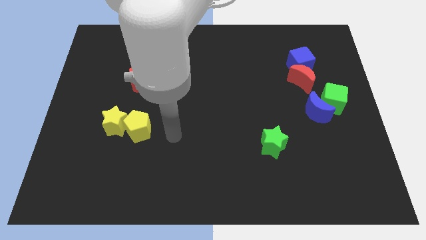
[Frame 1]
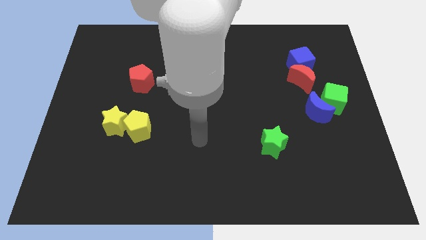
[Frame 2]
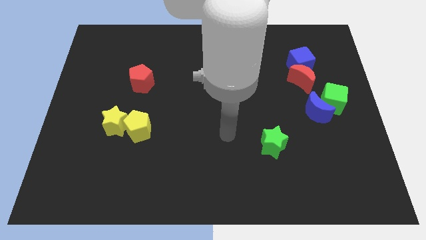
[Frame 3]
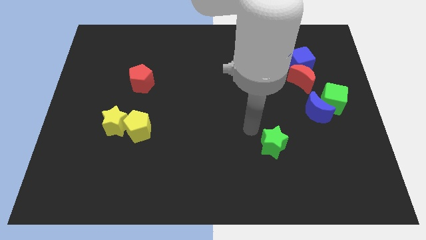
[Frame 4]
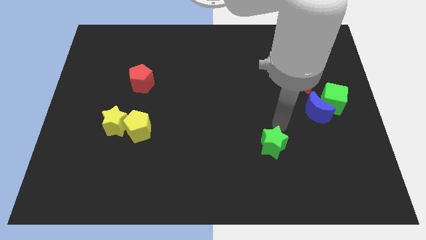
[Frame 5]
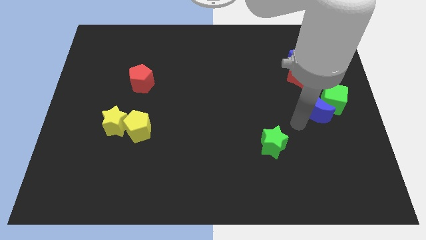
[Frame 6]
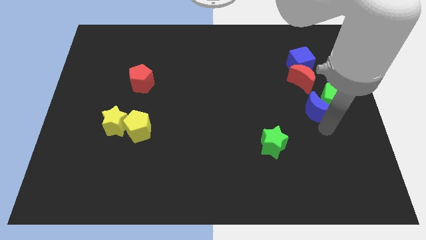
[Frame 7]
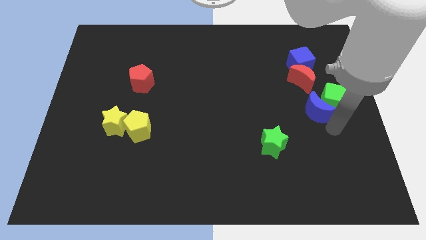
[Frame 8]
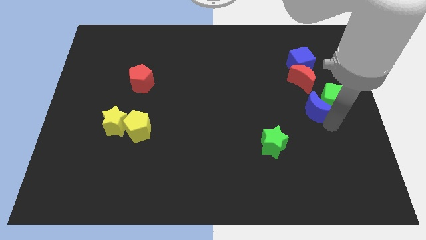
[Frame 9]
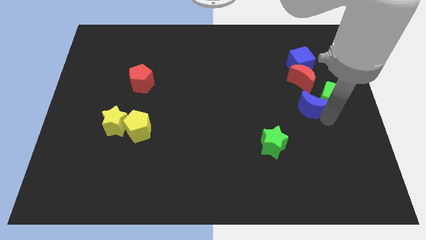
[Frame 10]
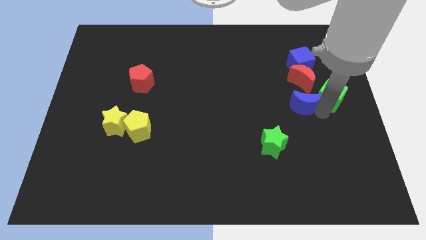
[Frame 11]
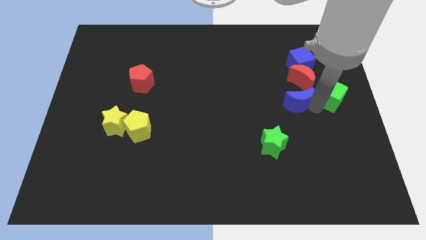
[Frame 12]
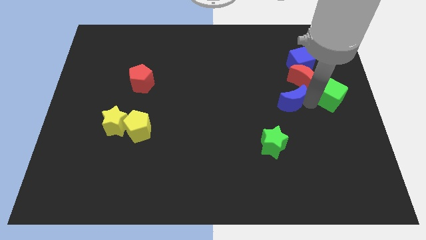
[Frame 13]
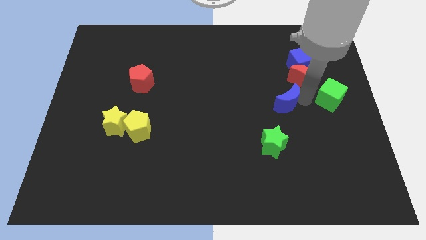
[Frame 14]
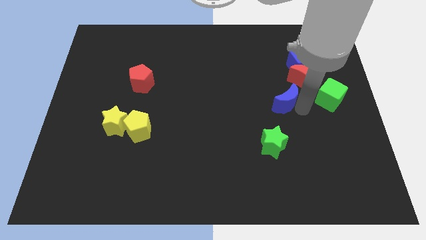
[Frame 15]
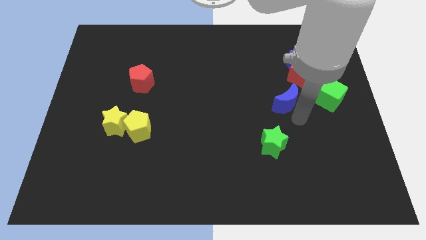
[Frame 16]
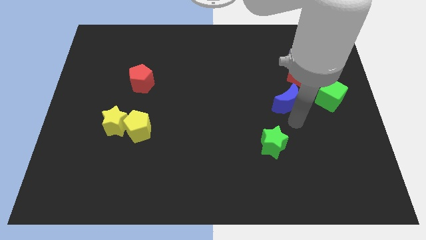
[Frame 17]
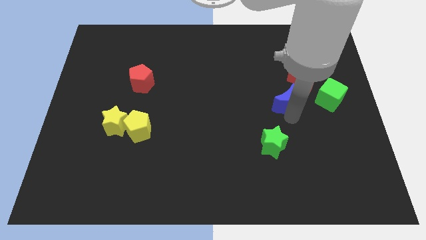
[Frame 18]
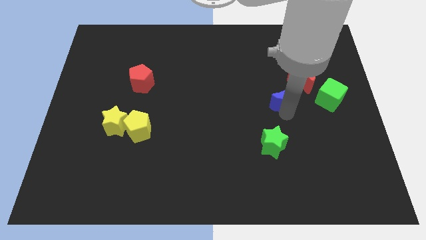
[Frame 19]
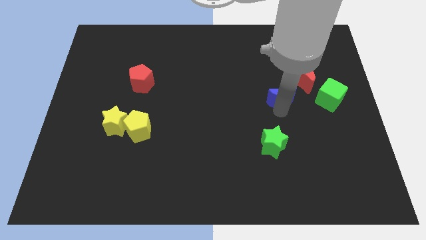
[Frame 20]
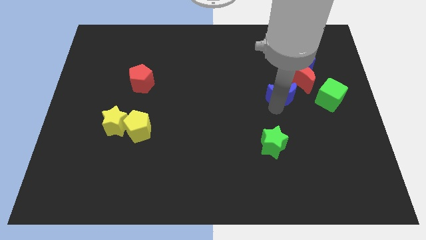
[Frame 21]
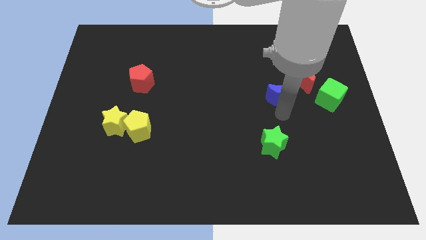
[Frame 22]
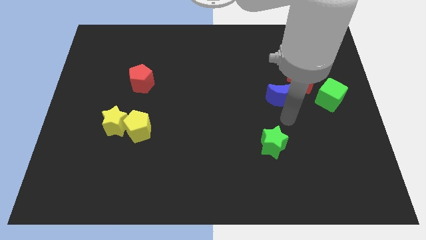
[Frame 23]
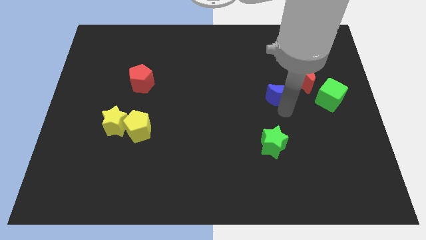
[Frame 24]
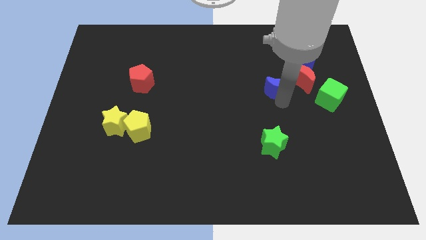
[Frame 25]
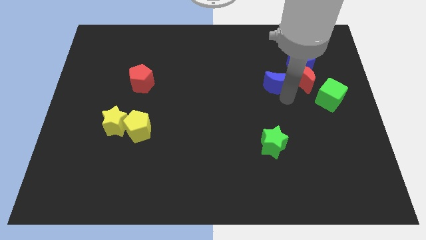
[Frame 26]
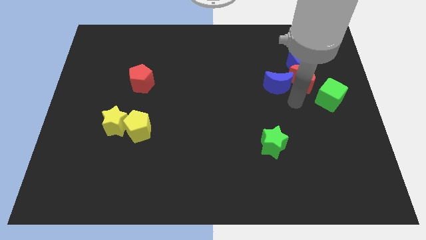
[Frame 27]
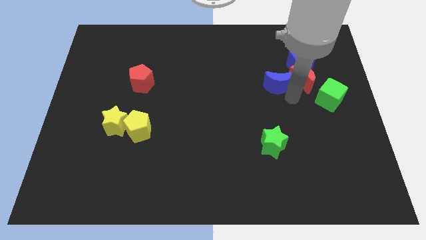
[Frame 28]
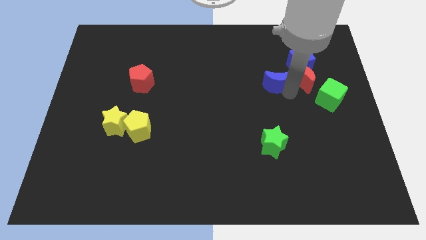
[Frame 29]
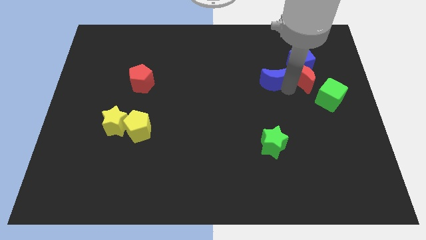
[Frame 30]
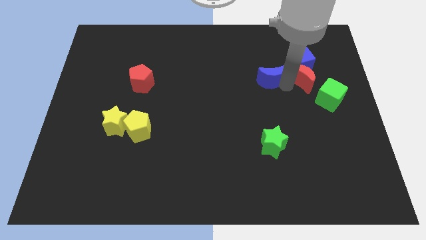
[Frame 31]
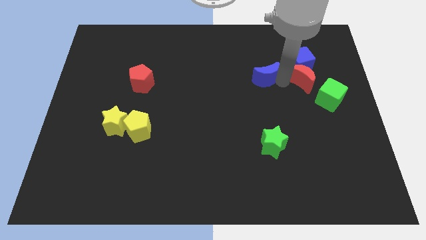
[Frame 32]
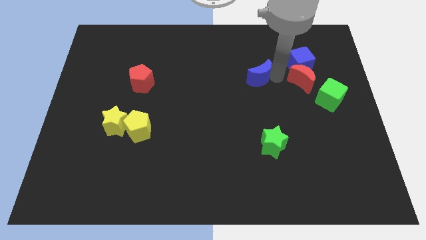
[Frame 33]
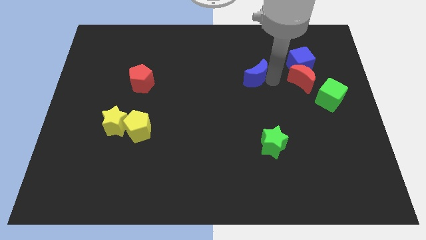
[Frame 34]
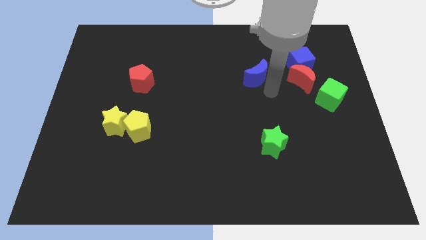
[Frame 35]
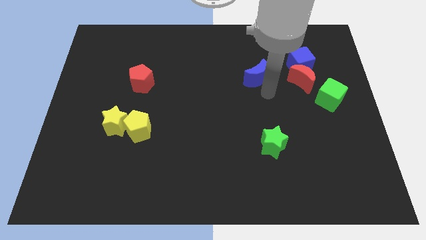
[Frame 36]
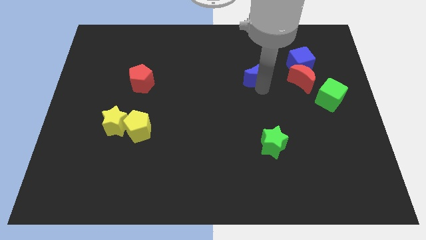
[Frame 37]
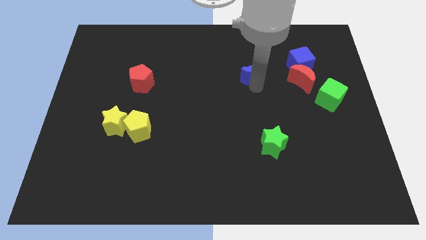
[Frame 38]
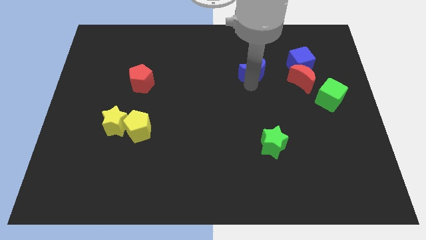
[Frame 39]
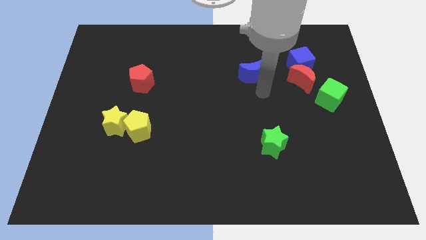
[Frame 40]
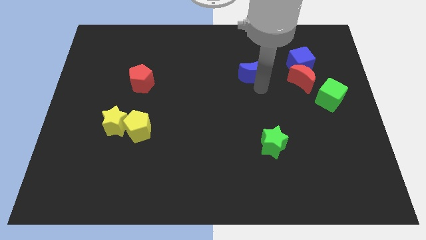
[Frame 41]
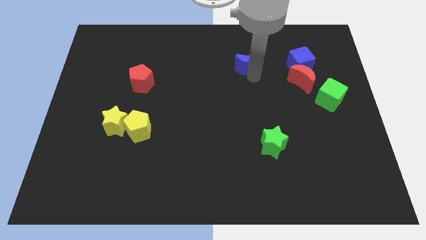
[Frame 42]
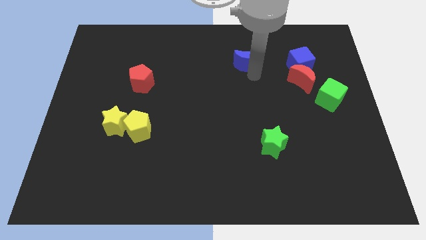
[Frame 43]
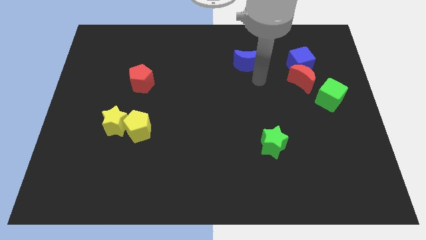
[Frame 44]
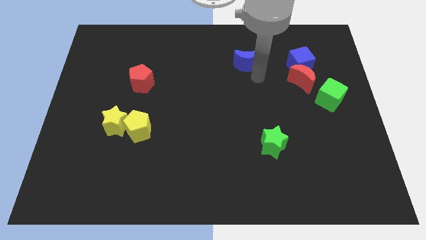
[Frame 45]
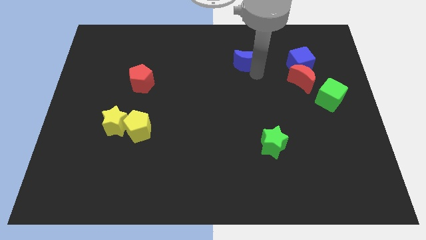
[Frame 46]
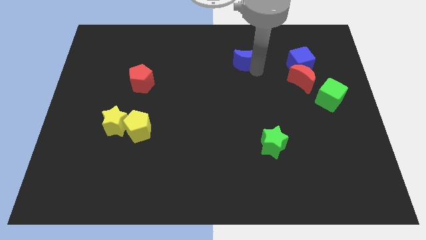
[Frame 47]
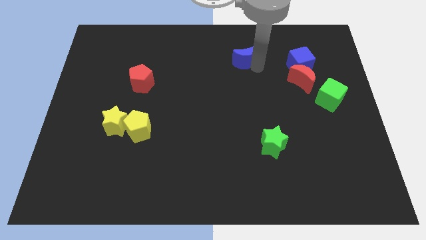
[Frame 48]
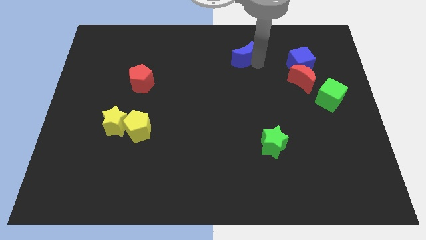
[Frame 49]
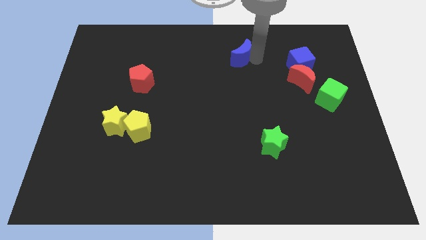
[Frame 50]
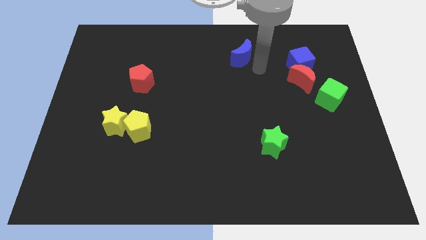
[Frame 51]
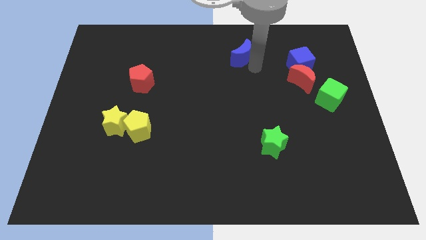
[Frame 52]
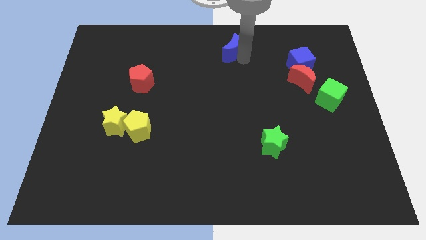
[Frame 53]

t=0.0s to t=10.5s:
push the blue moon to the top side
